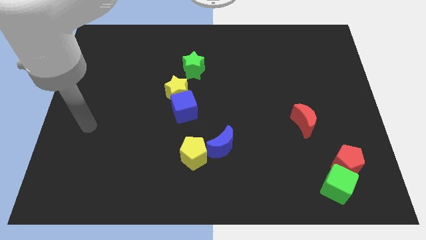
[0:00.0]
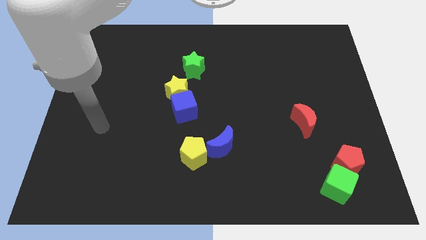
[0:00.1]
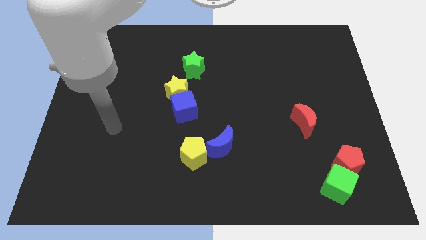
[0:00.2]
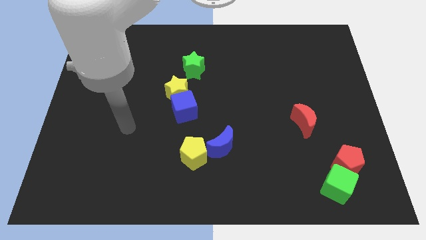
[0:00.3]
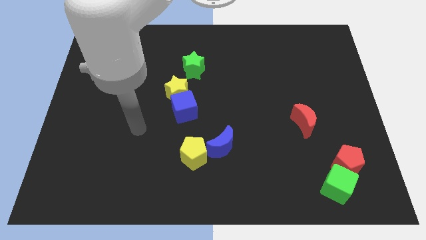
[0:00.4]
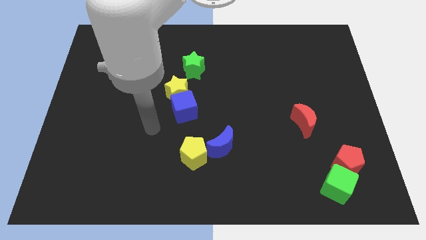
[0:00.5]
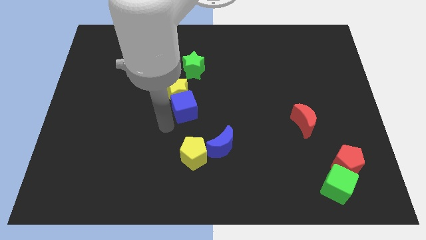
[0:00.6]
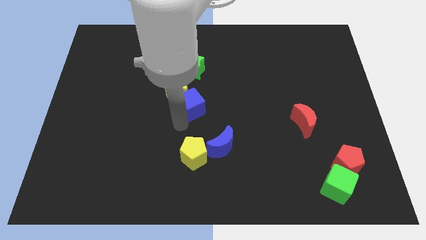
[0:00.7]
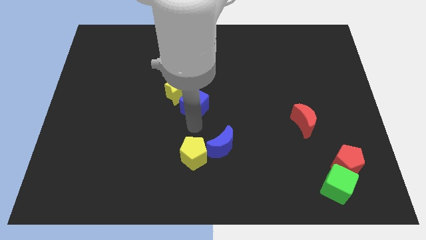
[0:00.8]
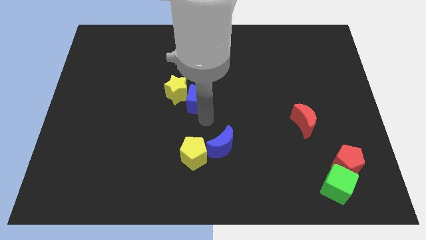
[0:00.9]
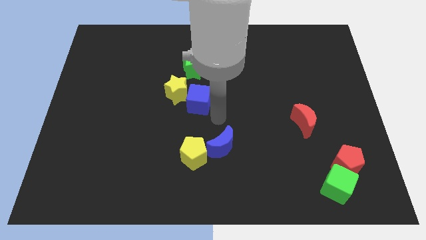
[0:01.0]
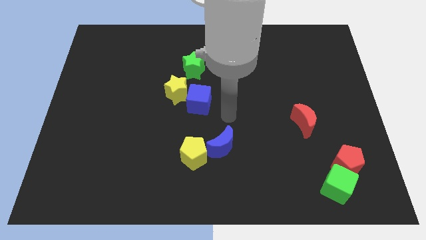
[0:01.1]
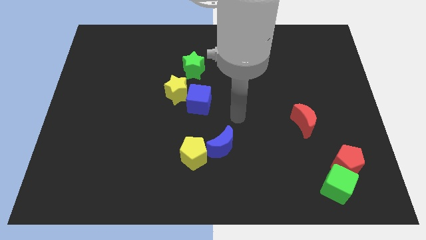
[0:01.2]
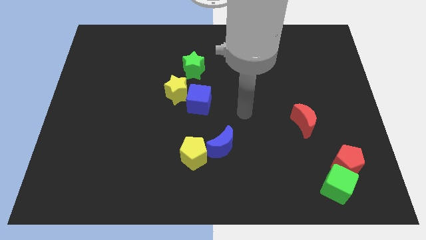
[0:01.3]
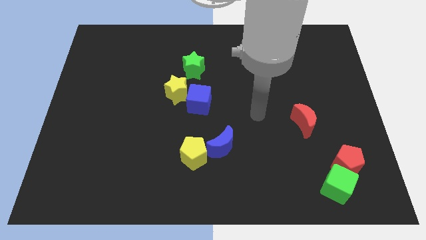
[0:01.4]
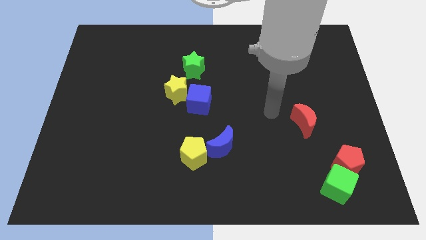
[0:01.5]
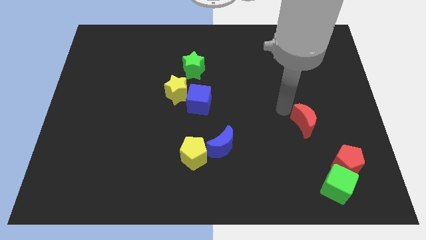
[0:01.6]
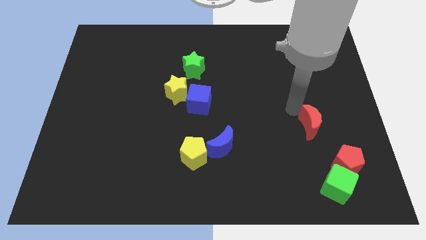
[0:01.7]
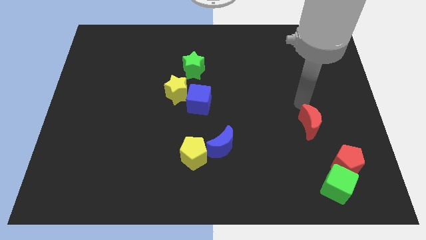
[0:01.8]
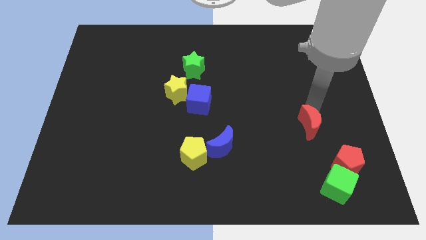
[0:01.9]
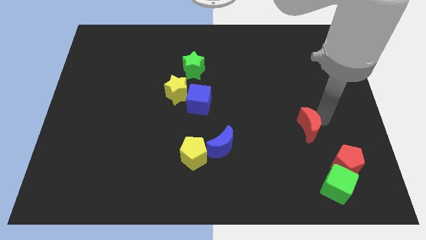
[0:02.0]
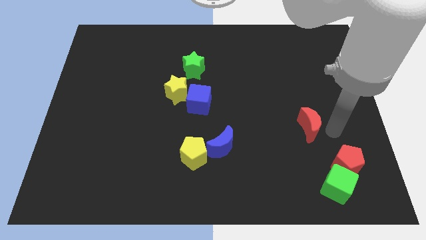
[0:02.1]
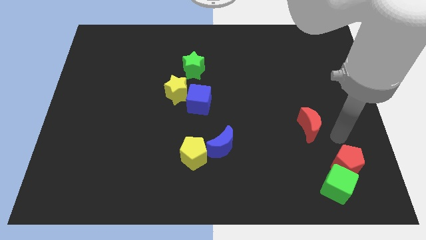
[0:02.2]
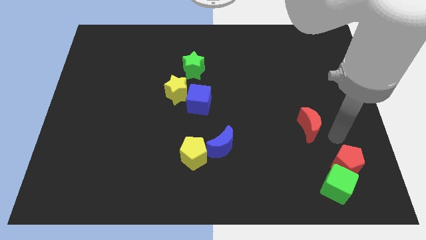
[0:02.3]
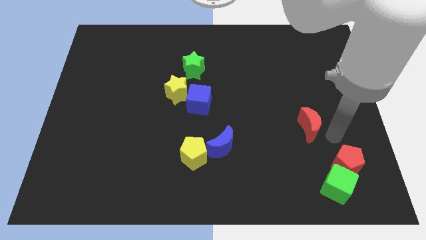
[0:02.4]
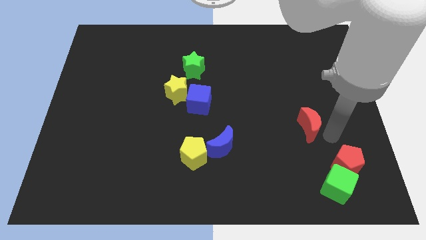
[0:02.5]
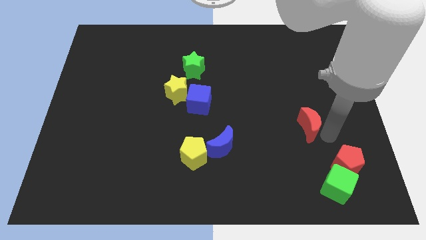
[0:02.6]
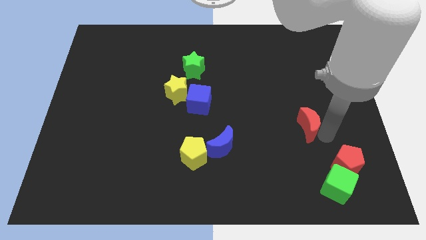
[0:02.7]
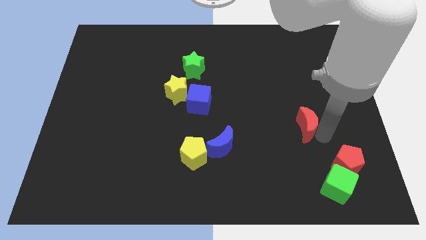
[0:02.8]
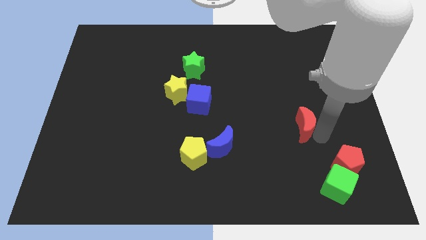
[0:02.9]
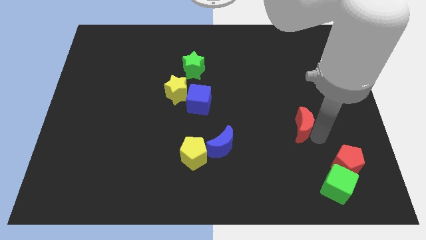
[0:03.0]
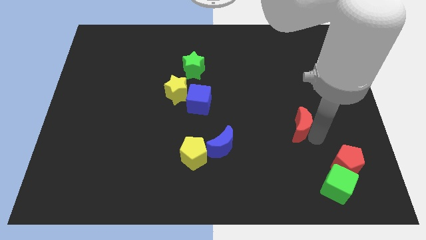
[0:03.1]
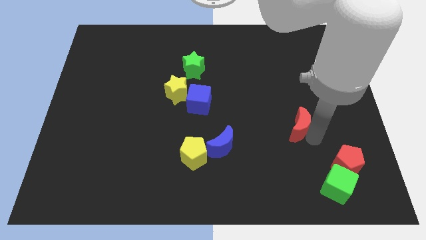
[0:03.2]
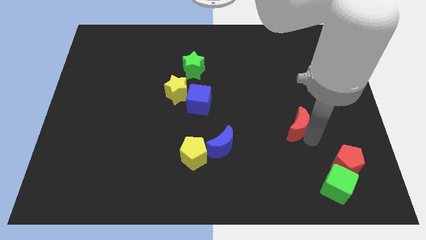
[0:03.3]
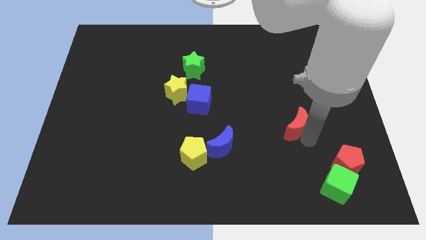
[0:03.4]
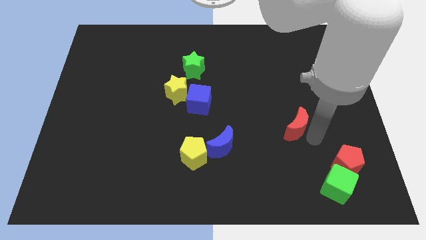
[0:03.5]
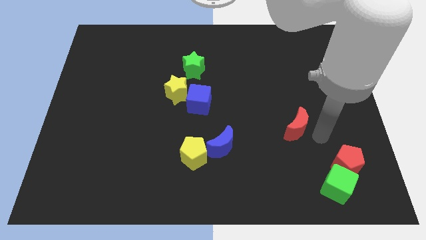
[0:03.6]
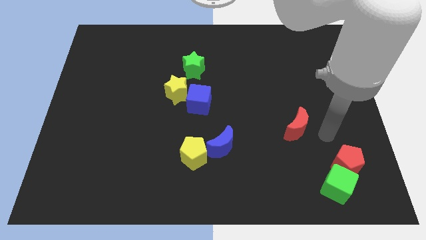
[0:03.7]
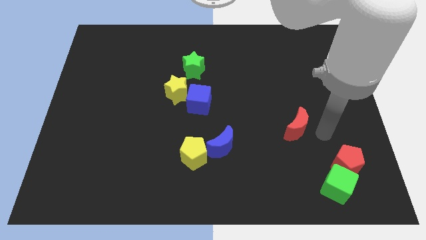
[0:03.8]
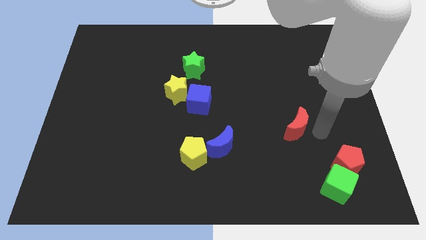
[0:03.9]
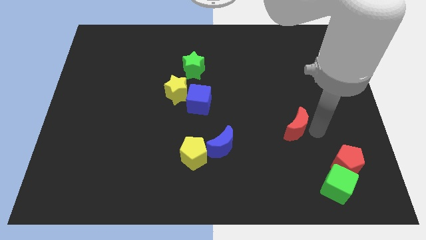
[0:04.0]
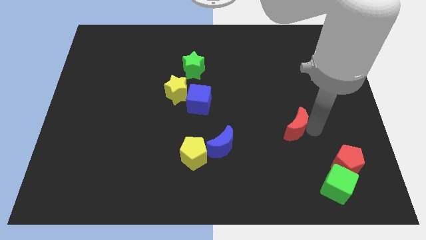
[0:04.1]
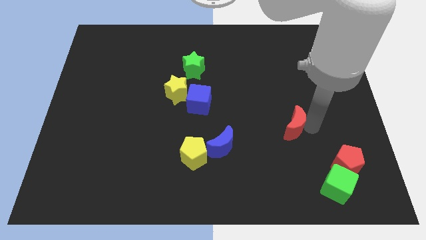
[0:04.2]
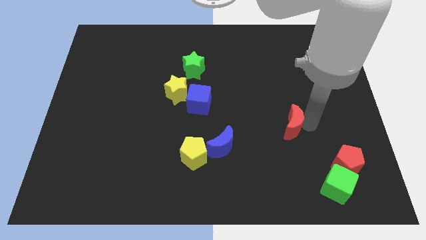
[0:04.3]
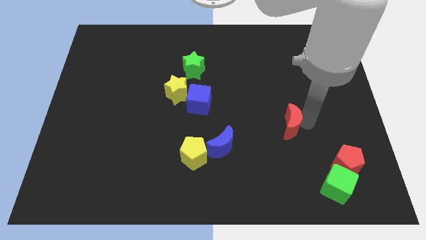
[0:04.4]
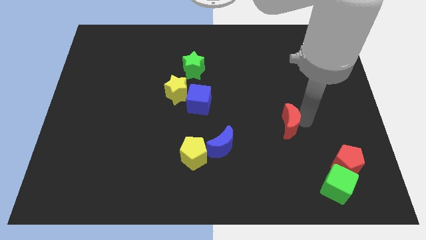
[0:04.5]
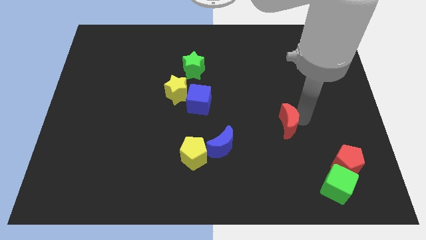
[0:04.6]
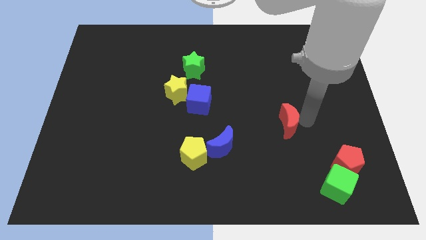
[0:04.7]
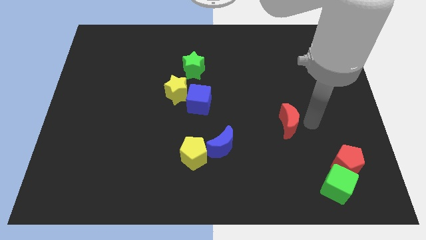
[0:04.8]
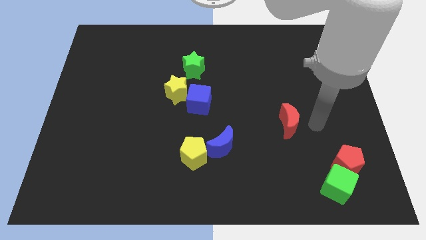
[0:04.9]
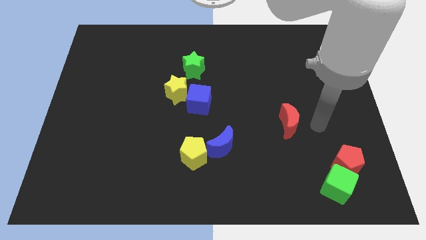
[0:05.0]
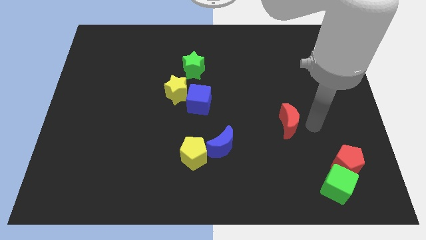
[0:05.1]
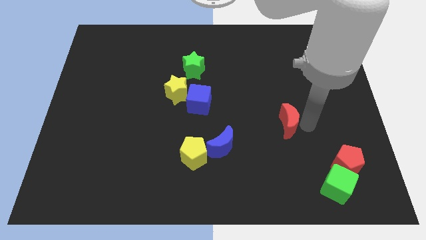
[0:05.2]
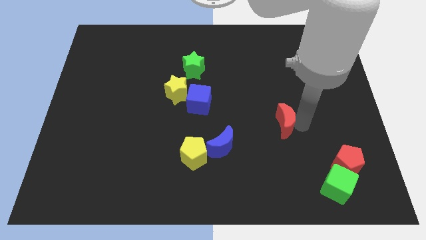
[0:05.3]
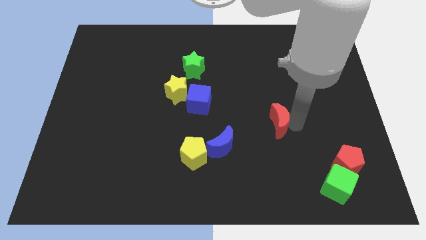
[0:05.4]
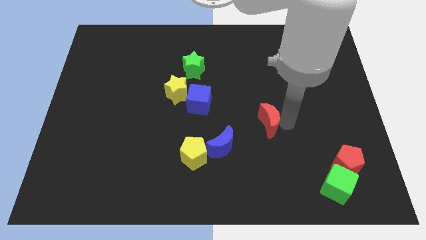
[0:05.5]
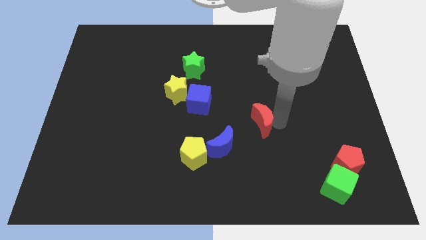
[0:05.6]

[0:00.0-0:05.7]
move the red moon to the top right of the blue moon
